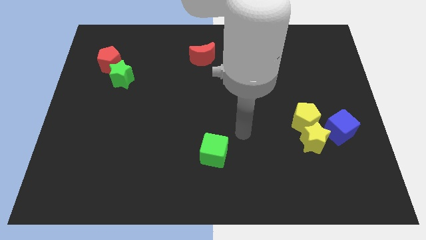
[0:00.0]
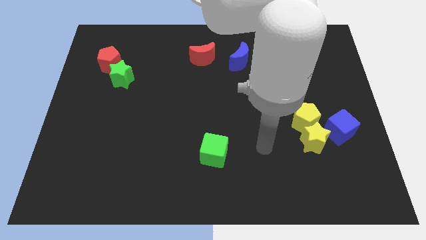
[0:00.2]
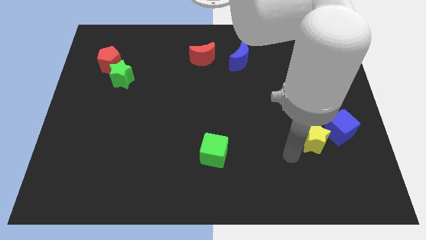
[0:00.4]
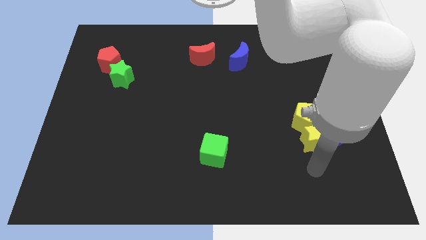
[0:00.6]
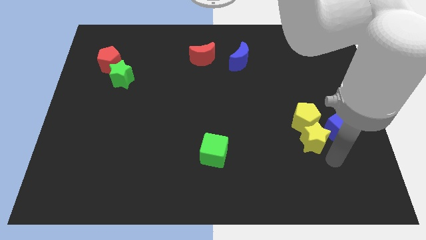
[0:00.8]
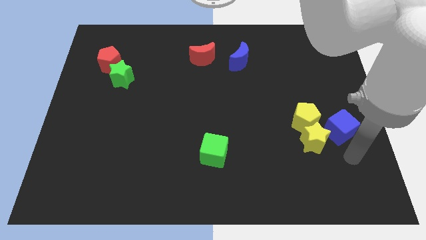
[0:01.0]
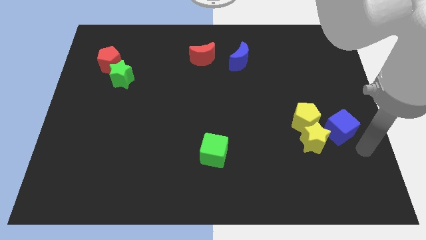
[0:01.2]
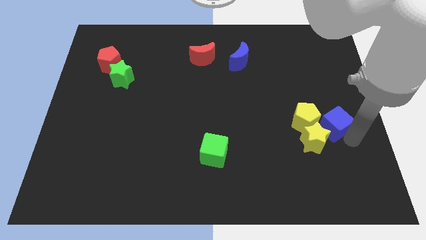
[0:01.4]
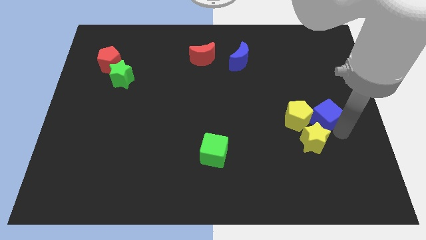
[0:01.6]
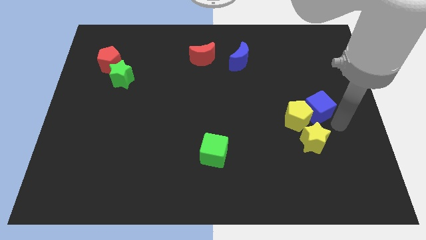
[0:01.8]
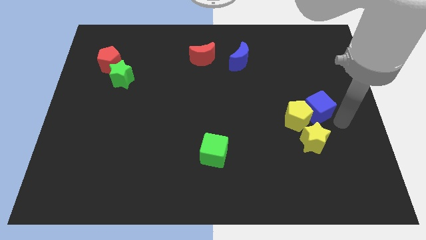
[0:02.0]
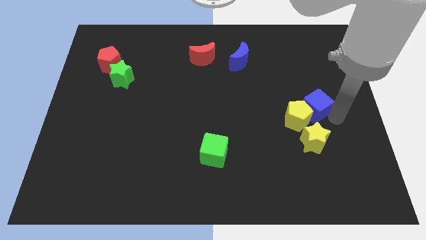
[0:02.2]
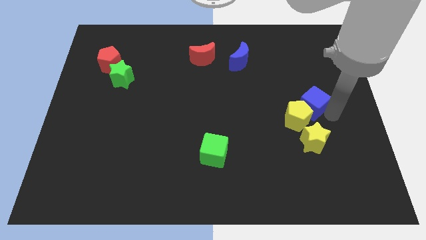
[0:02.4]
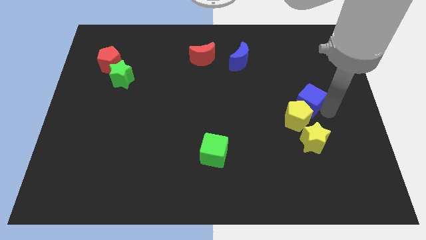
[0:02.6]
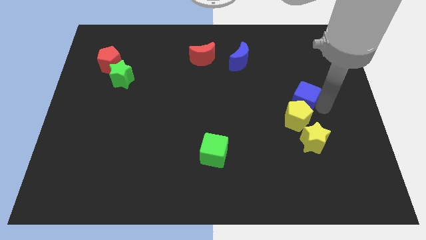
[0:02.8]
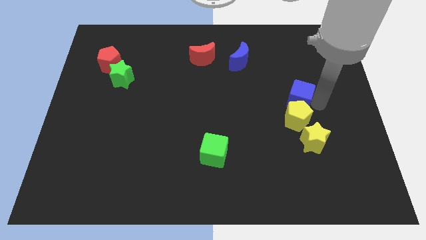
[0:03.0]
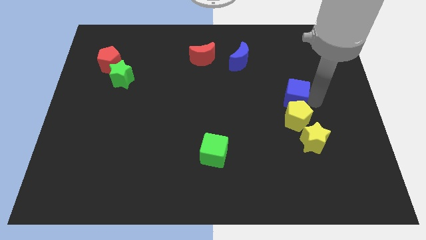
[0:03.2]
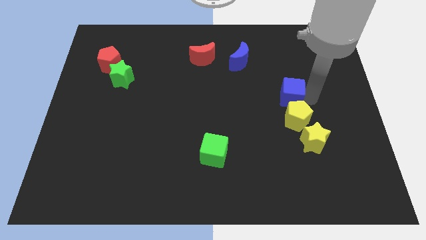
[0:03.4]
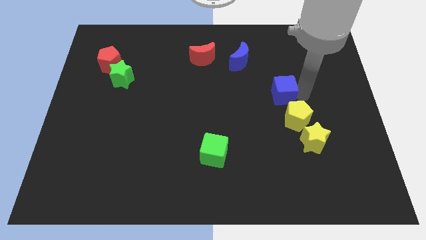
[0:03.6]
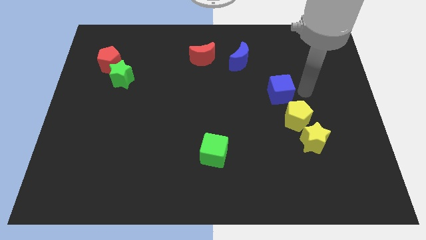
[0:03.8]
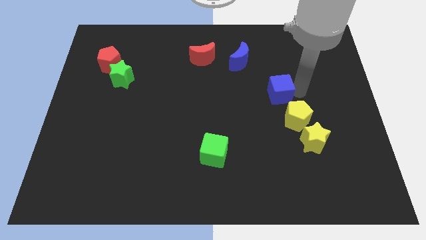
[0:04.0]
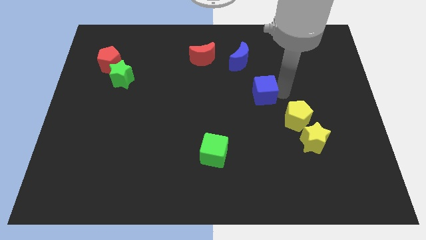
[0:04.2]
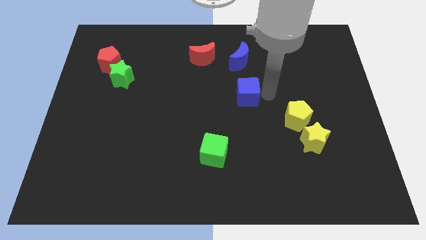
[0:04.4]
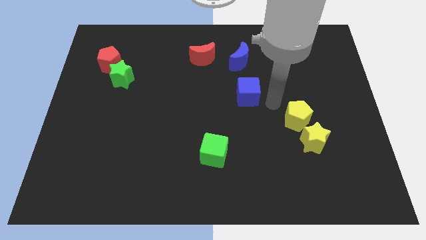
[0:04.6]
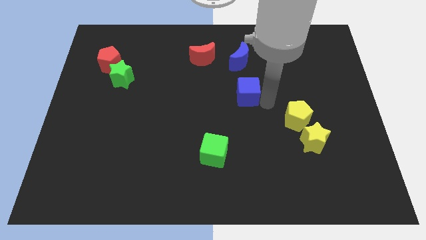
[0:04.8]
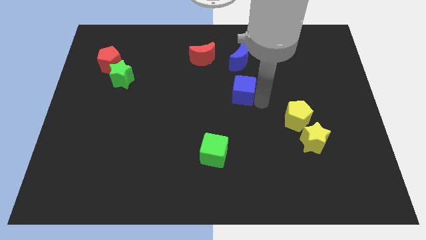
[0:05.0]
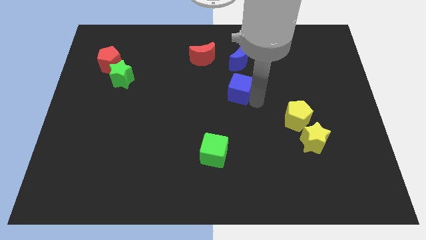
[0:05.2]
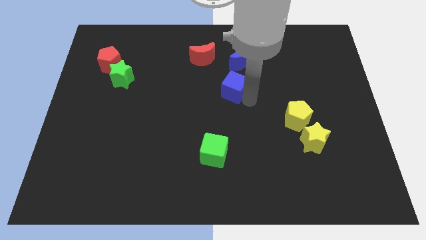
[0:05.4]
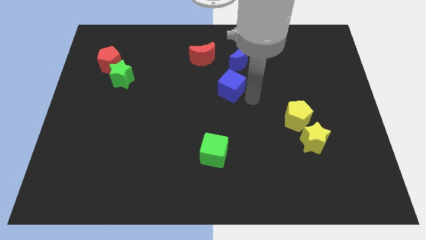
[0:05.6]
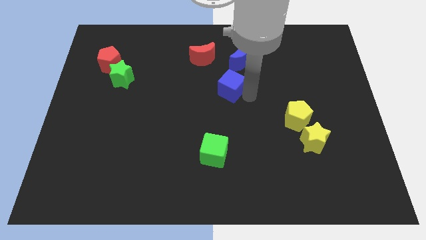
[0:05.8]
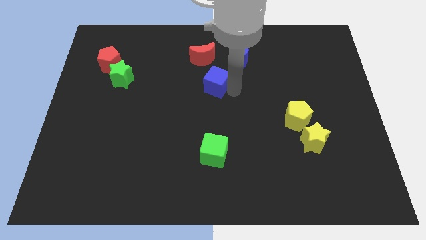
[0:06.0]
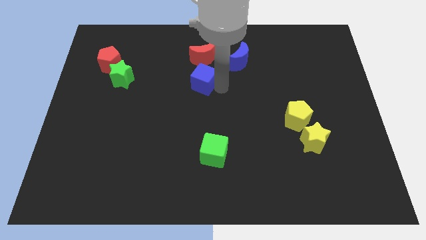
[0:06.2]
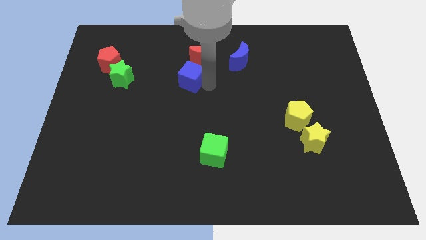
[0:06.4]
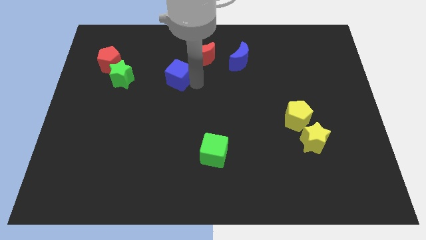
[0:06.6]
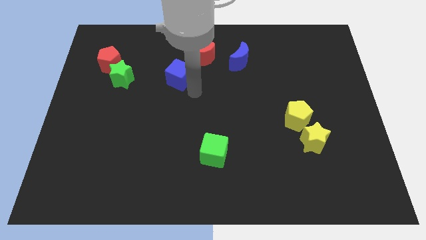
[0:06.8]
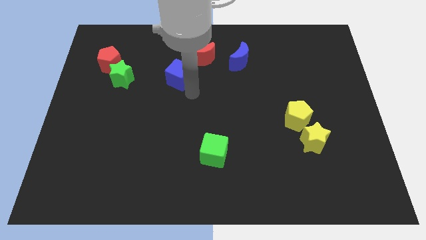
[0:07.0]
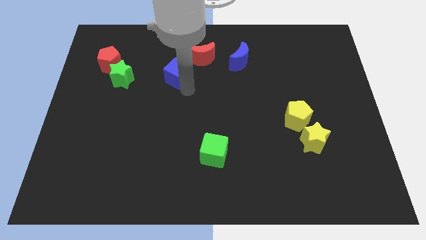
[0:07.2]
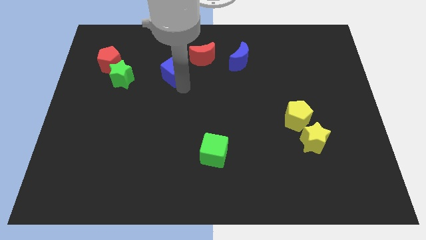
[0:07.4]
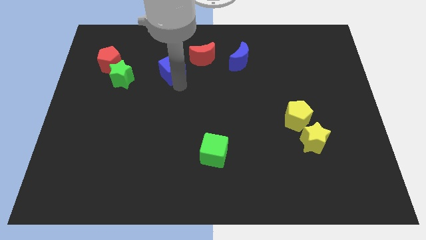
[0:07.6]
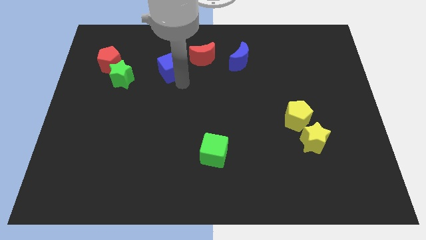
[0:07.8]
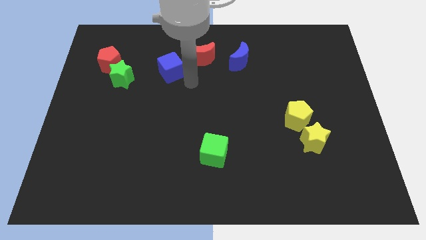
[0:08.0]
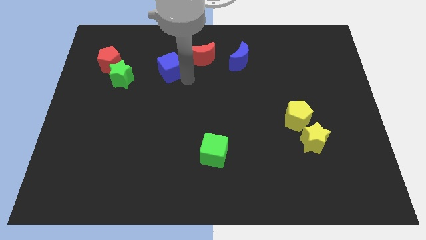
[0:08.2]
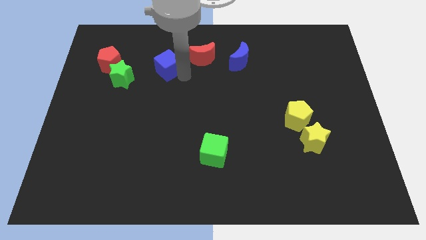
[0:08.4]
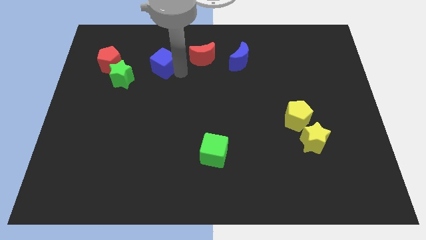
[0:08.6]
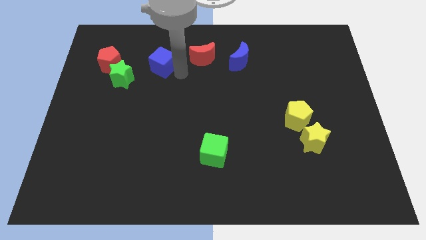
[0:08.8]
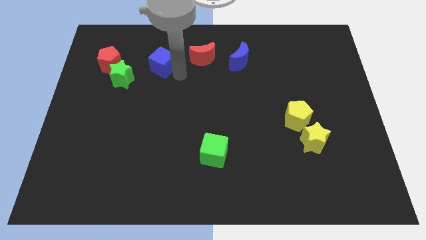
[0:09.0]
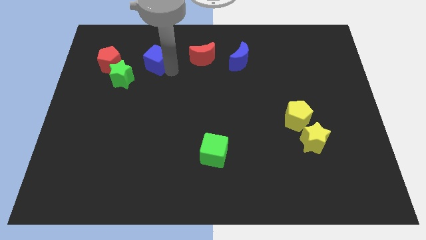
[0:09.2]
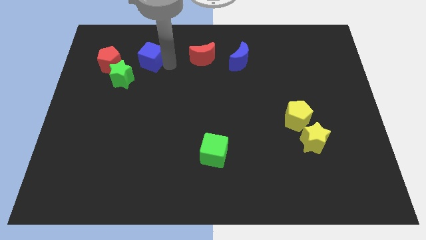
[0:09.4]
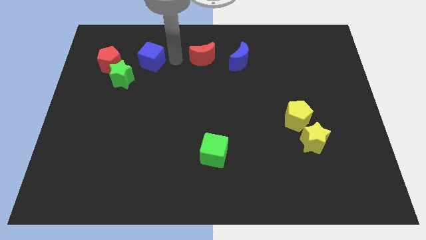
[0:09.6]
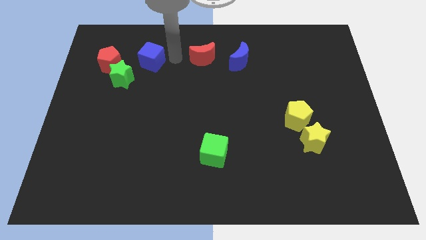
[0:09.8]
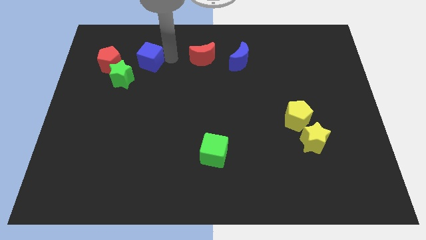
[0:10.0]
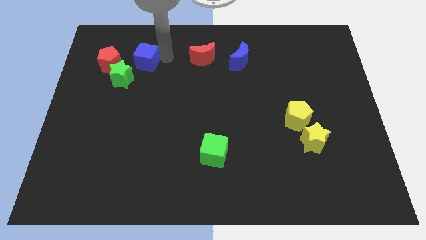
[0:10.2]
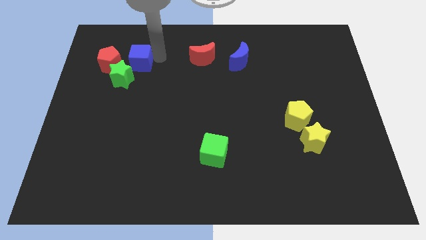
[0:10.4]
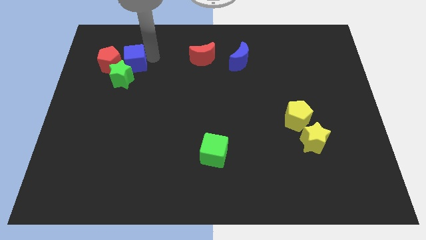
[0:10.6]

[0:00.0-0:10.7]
slide the blue cube towards the red pentagon
